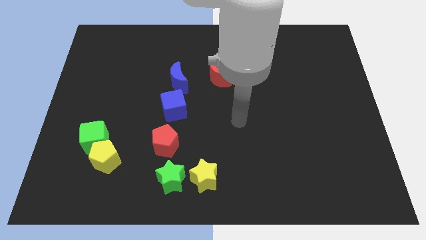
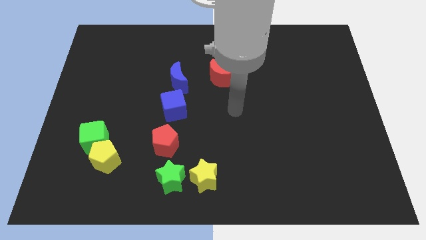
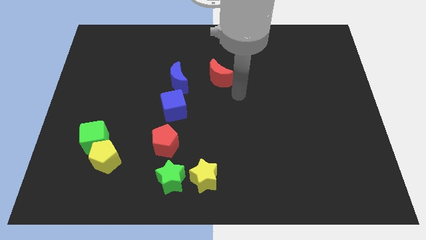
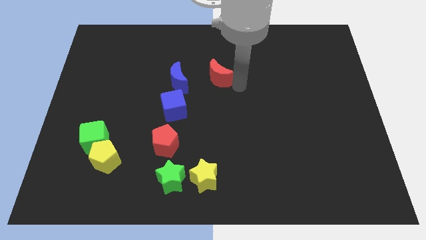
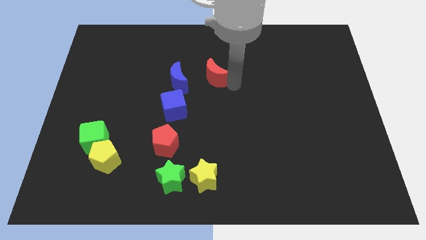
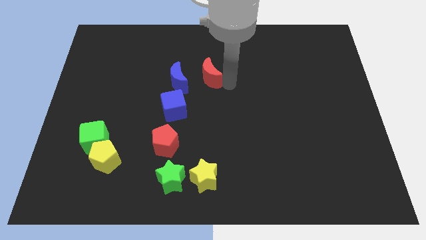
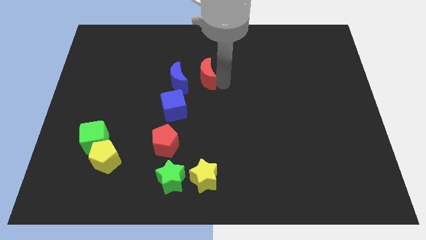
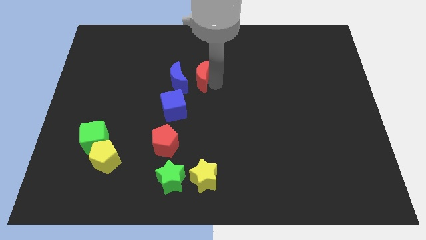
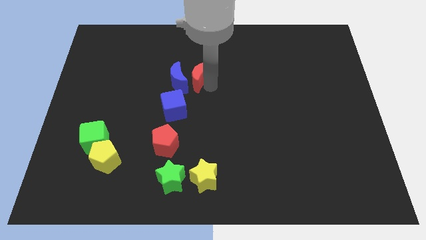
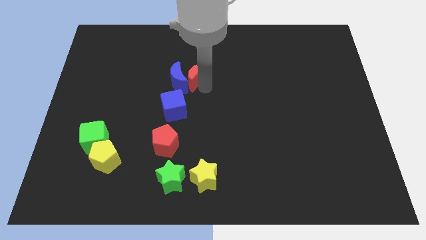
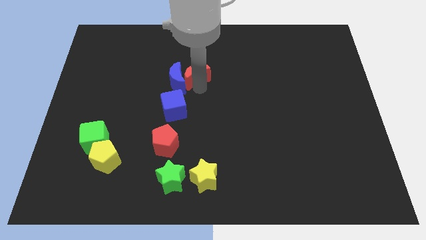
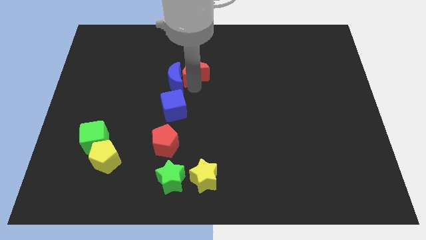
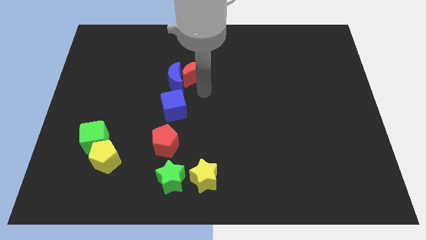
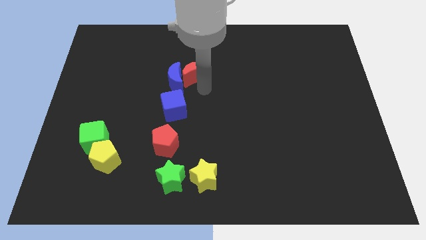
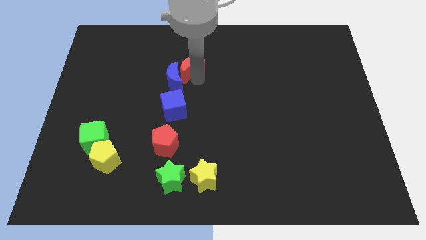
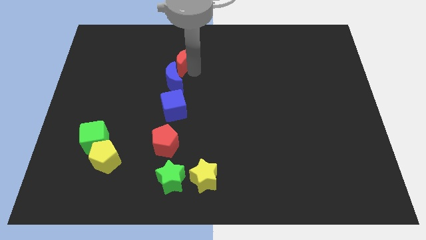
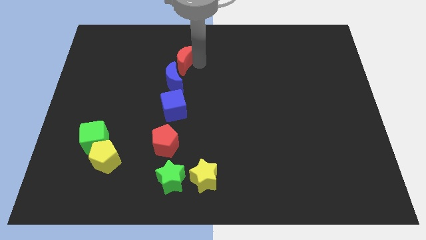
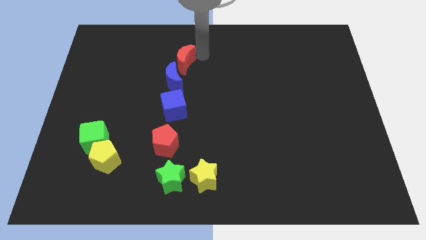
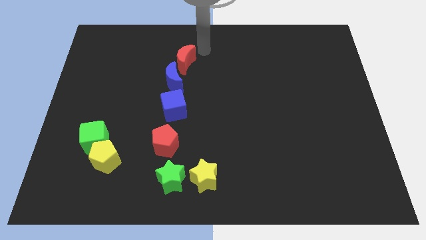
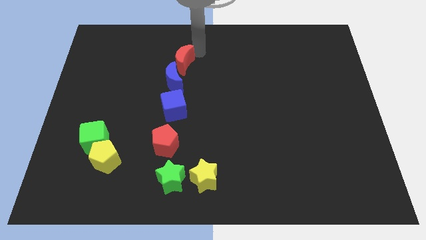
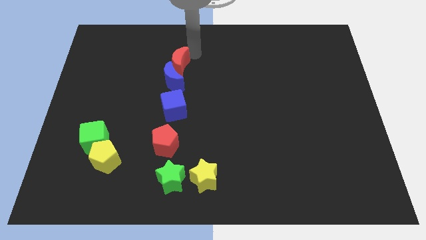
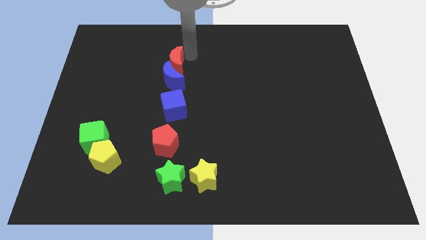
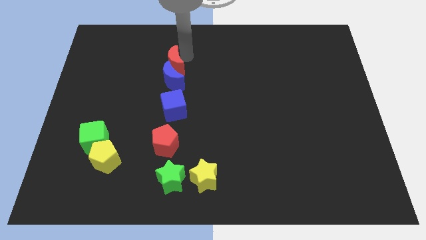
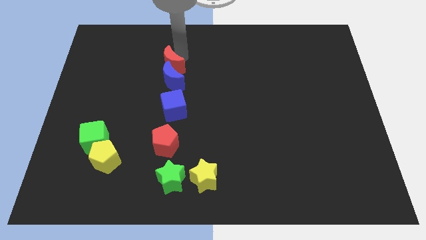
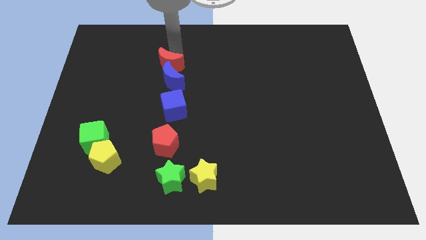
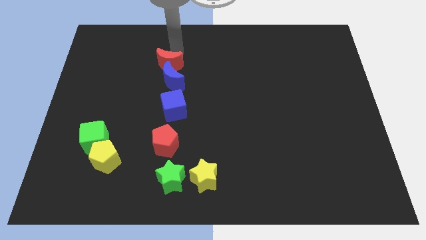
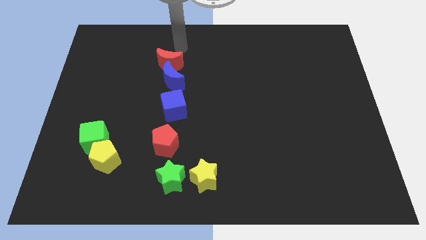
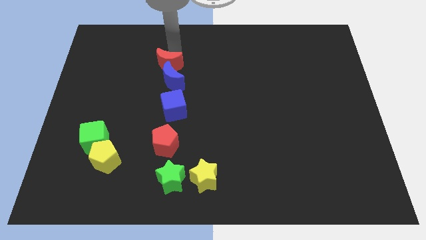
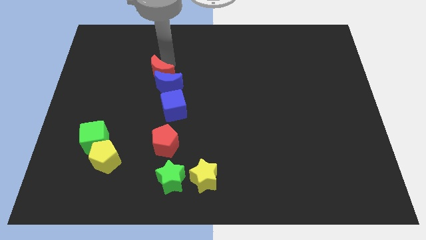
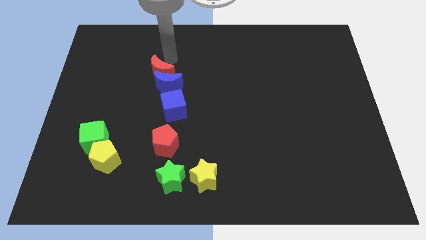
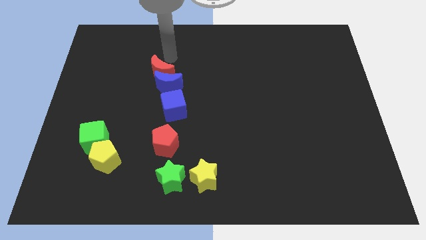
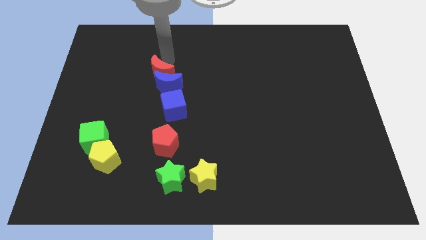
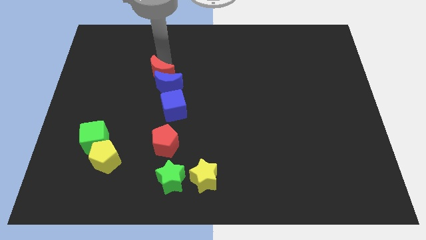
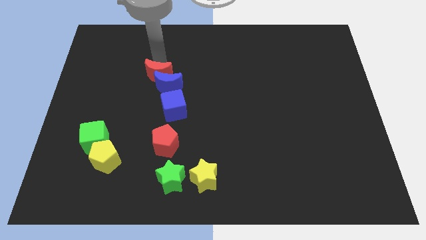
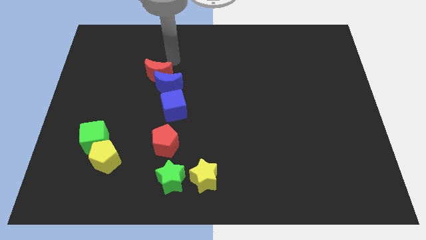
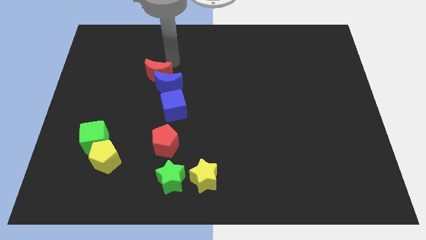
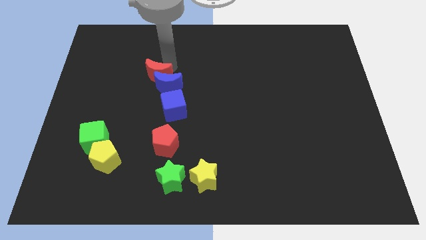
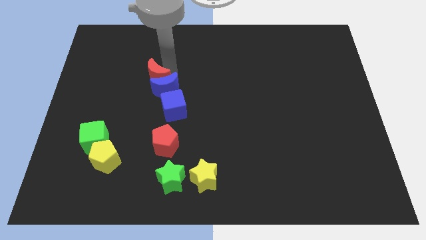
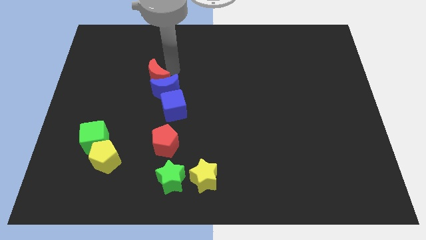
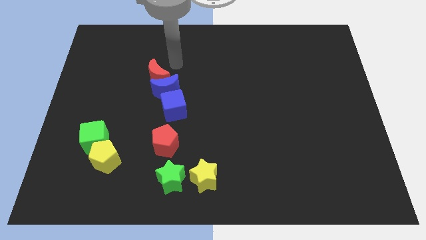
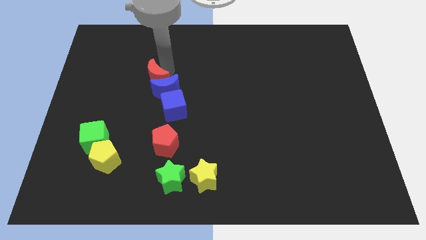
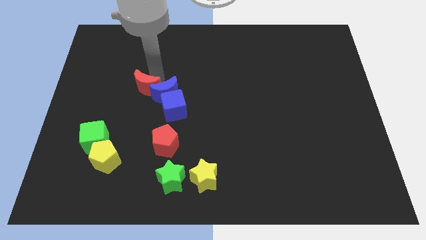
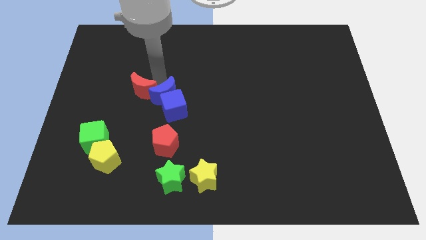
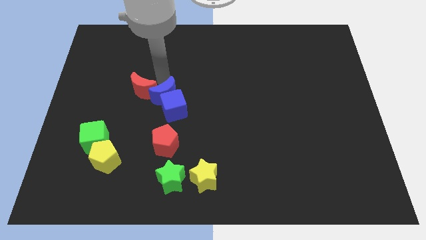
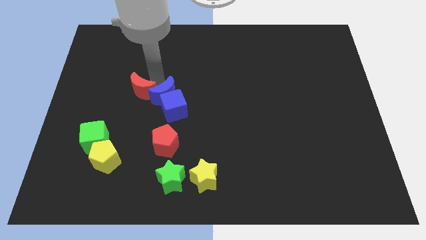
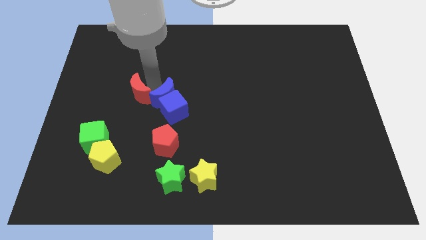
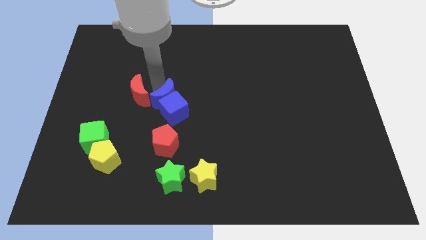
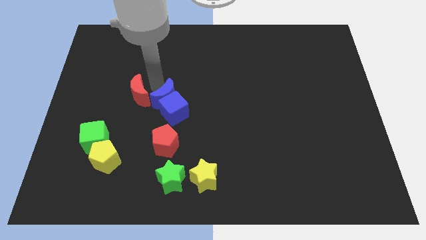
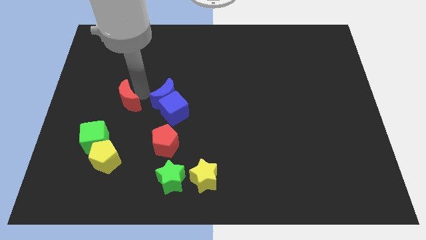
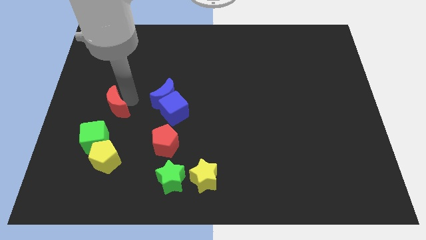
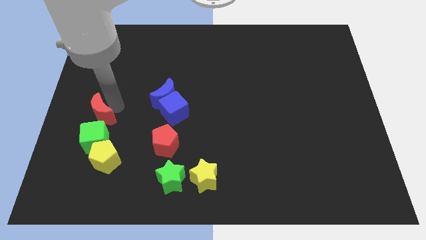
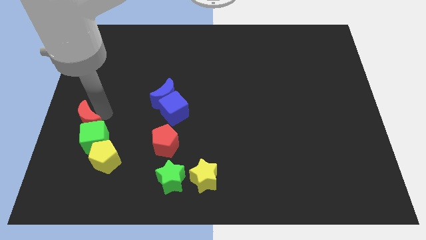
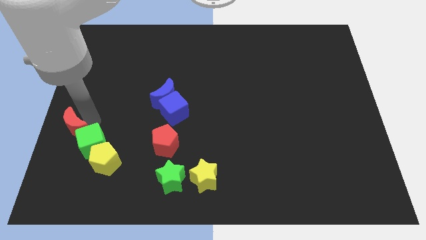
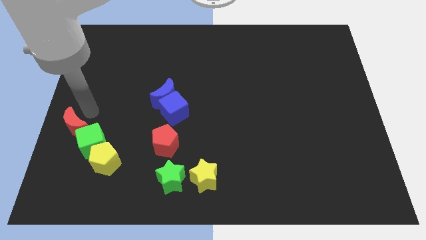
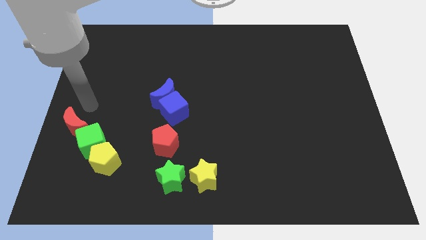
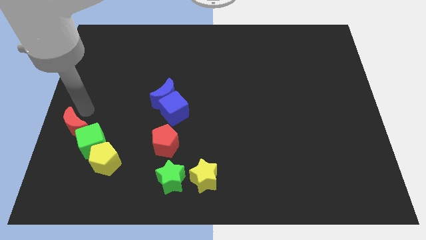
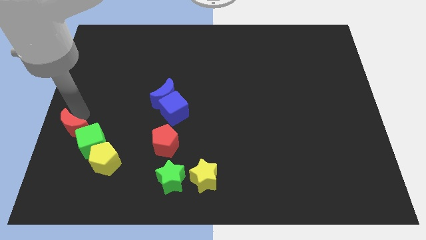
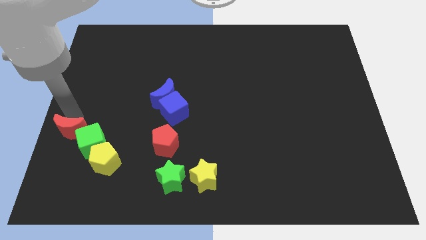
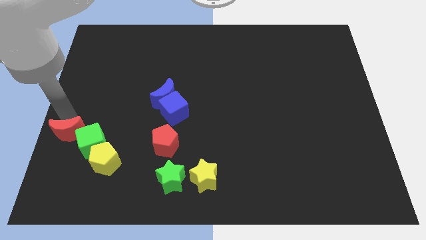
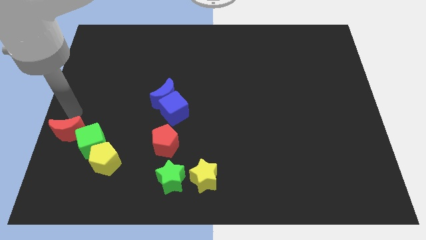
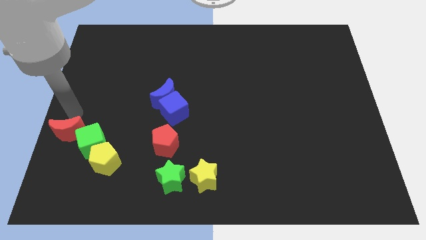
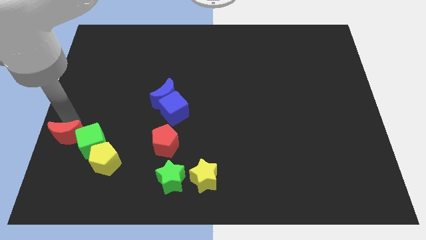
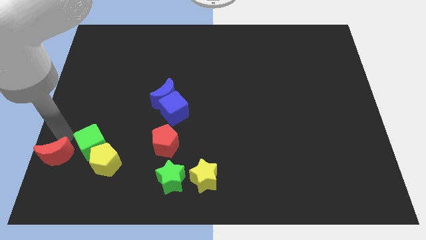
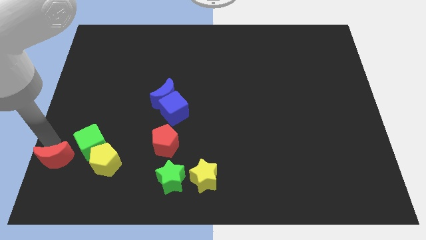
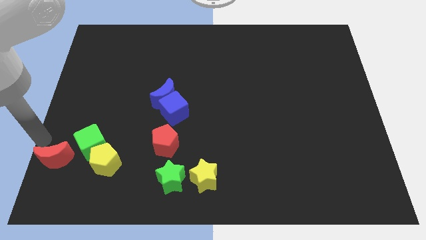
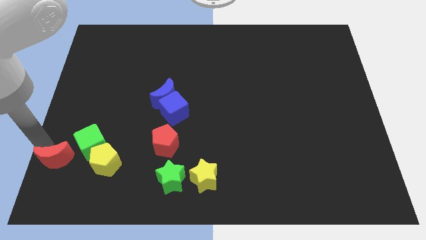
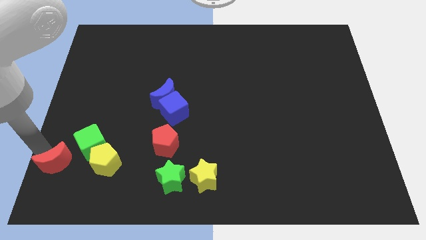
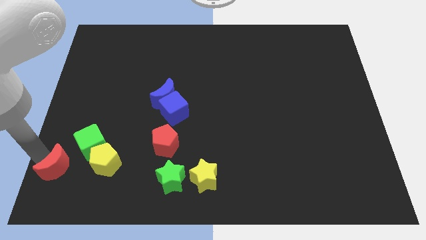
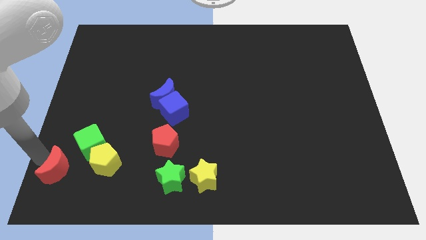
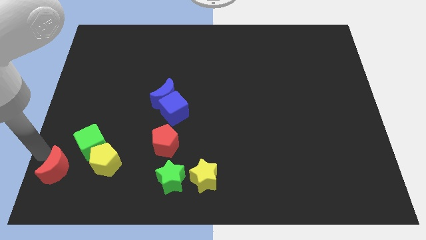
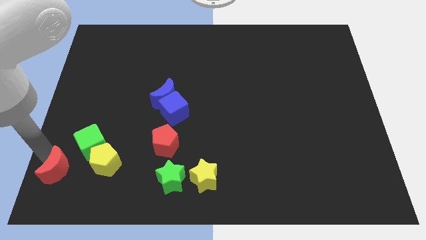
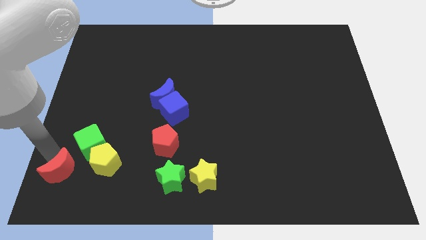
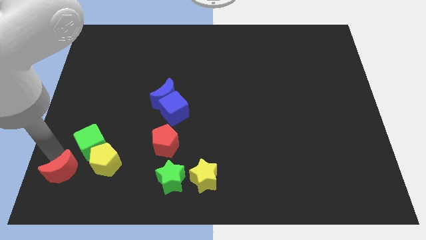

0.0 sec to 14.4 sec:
put the red moon diagonally down and to the left of the yellow pentagon
